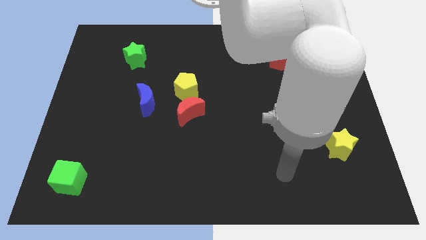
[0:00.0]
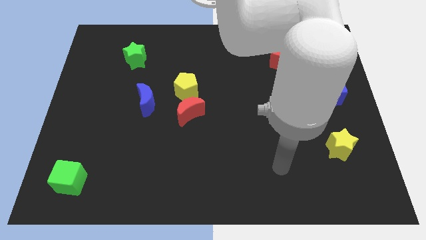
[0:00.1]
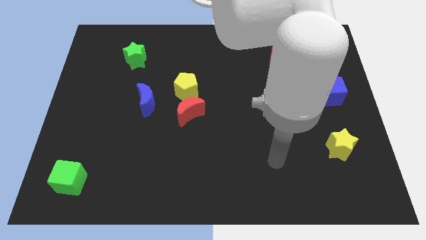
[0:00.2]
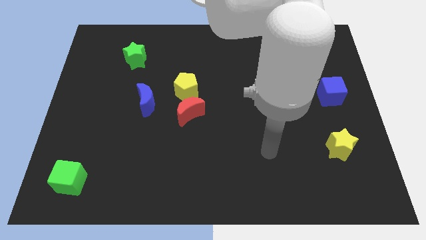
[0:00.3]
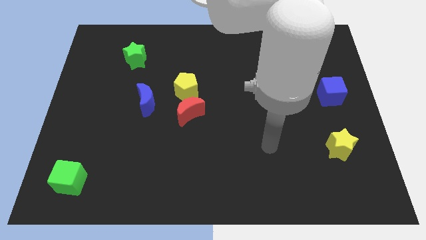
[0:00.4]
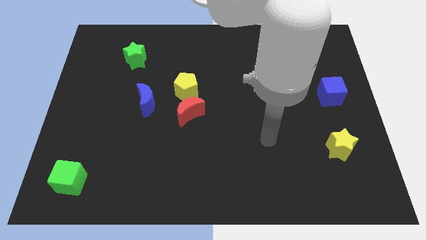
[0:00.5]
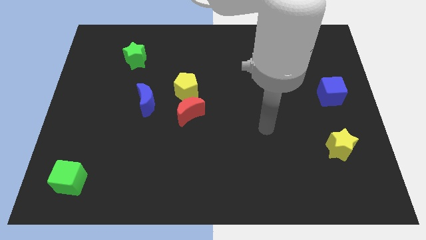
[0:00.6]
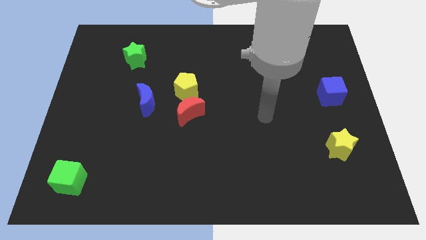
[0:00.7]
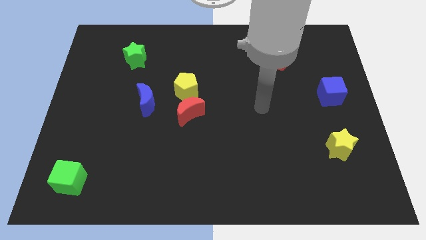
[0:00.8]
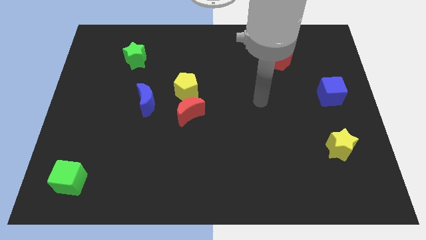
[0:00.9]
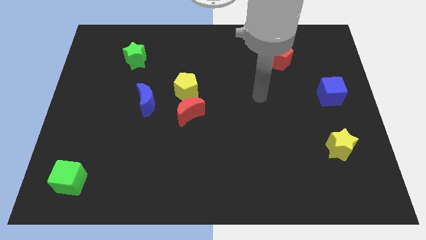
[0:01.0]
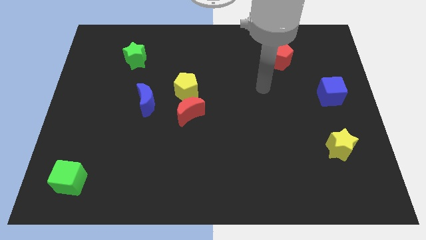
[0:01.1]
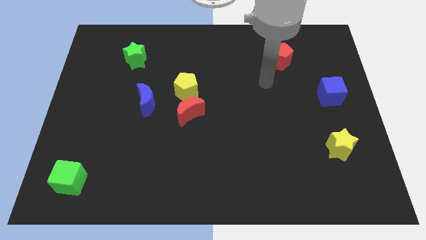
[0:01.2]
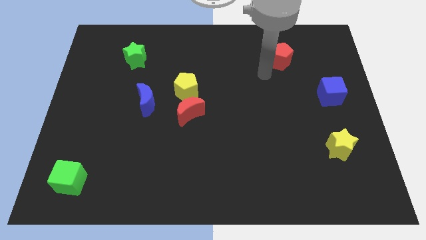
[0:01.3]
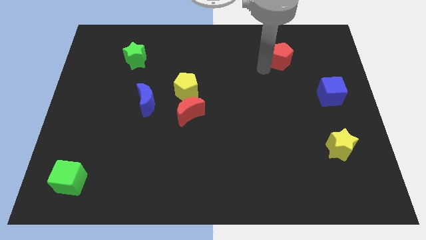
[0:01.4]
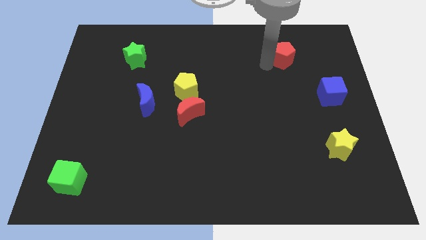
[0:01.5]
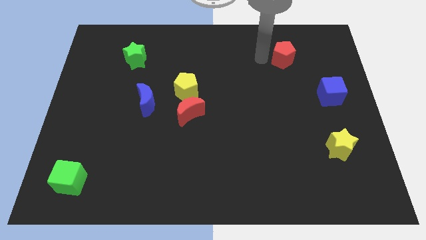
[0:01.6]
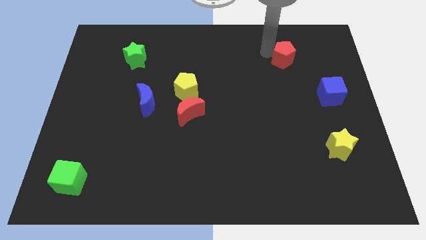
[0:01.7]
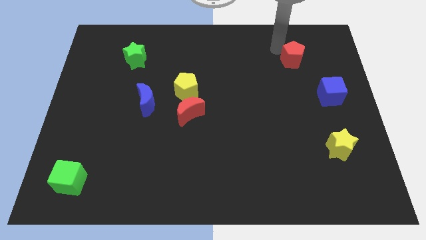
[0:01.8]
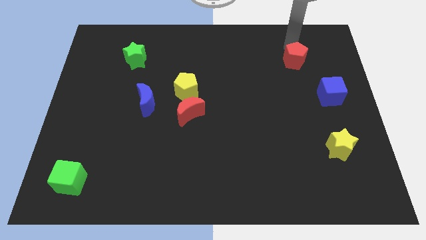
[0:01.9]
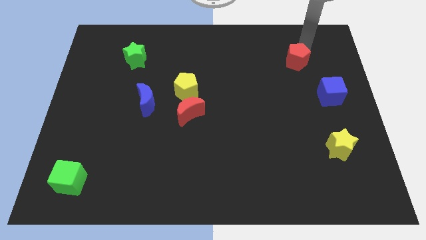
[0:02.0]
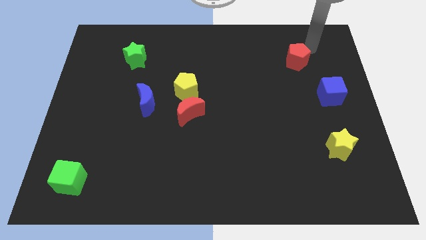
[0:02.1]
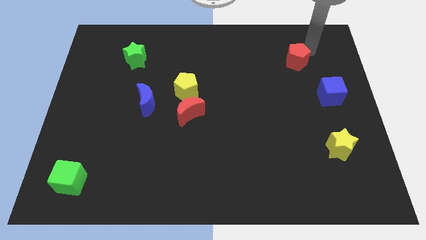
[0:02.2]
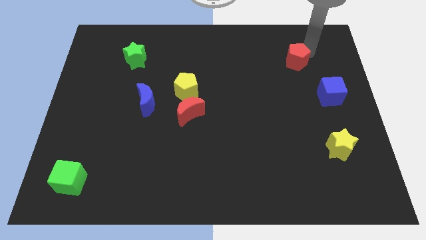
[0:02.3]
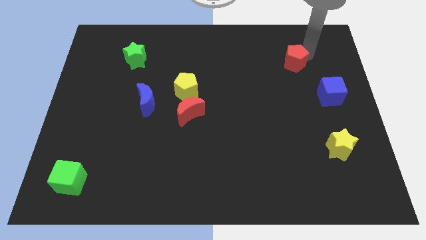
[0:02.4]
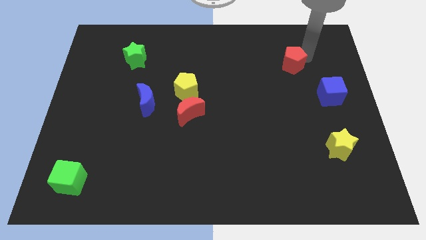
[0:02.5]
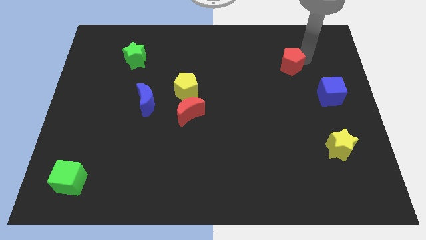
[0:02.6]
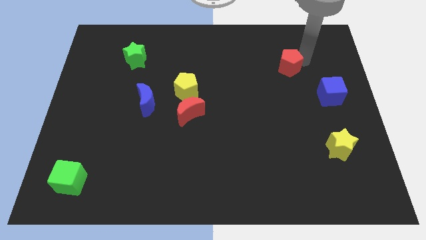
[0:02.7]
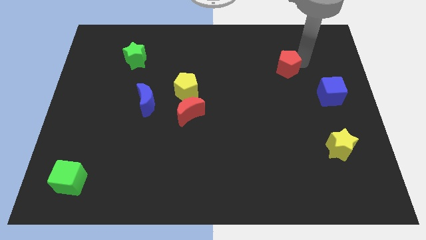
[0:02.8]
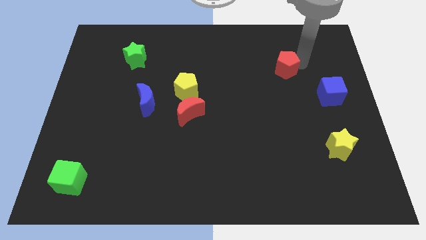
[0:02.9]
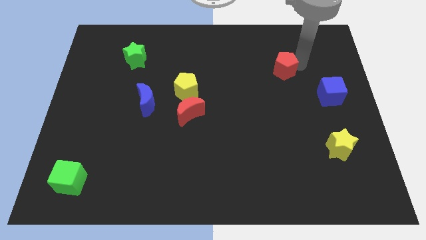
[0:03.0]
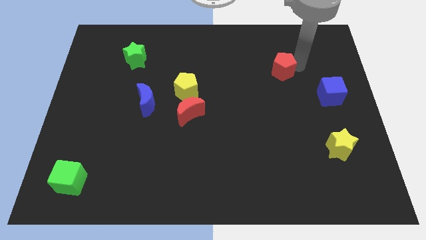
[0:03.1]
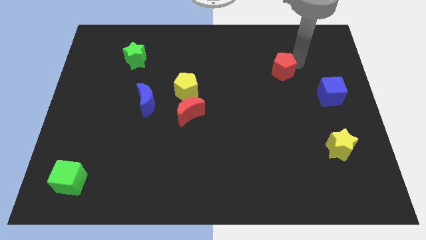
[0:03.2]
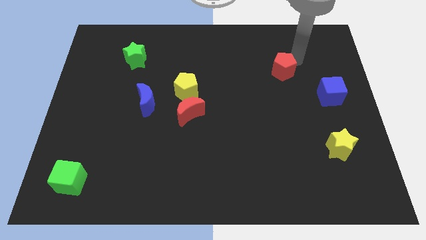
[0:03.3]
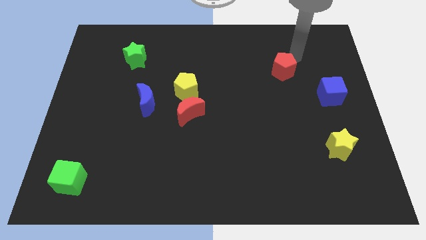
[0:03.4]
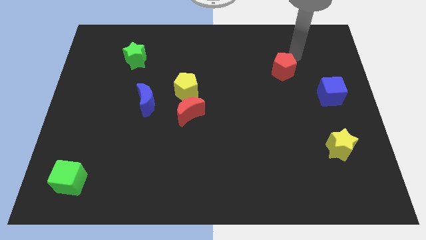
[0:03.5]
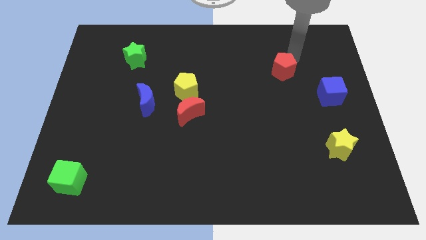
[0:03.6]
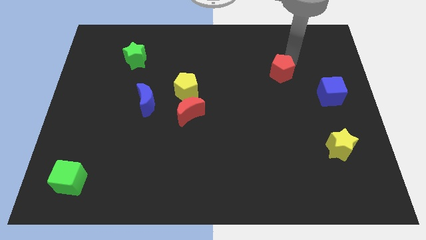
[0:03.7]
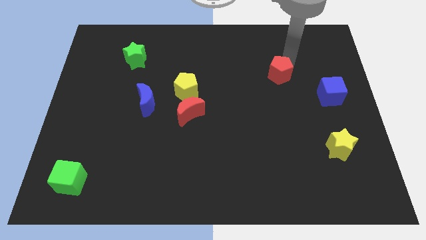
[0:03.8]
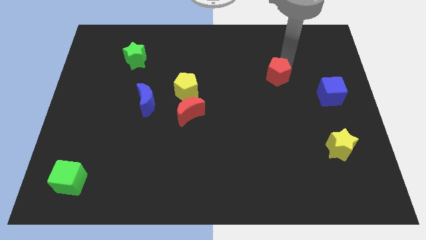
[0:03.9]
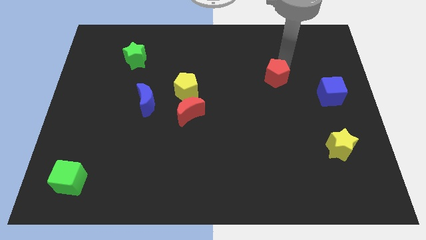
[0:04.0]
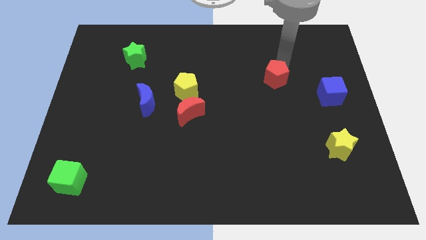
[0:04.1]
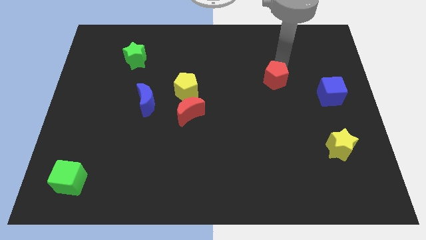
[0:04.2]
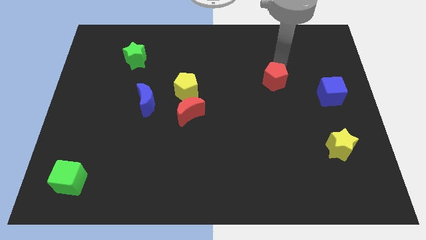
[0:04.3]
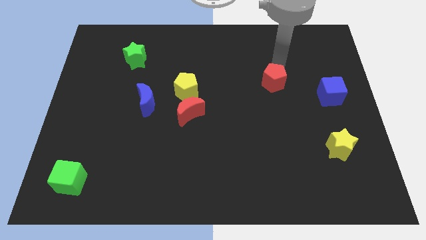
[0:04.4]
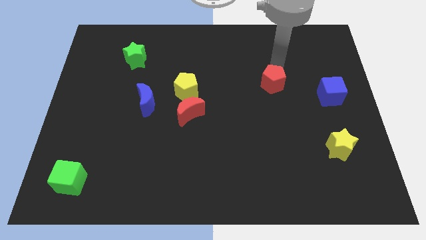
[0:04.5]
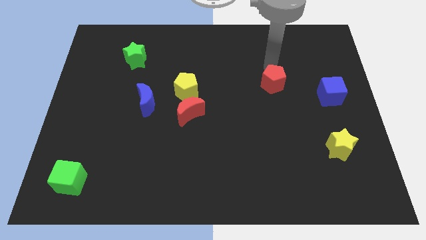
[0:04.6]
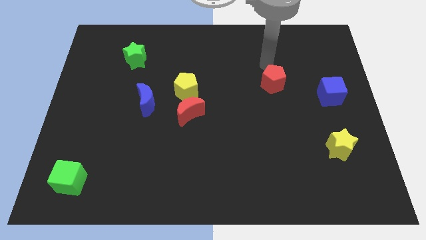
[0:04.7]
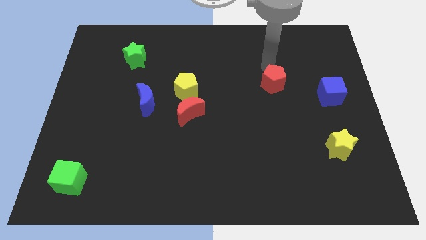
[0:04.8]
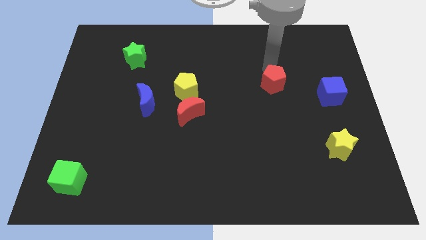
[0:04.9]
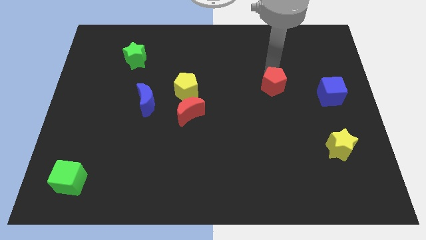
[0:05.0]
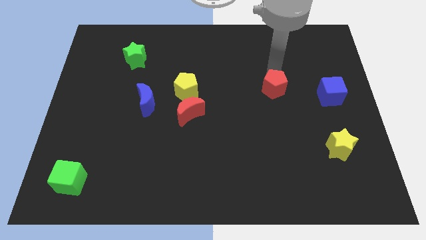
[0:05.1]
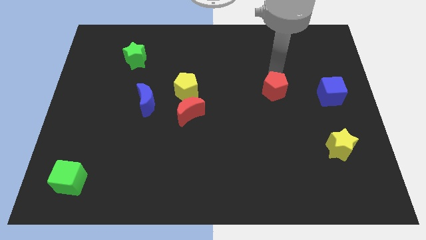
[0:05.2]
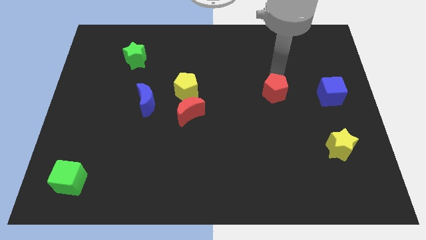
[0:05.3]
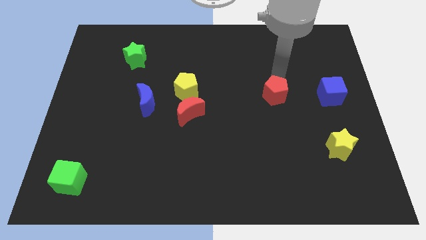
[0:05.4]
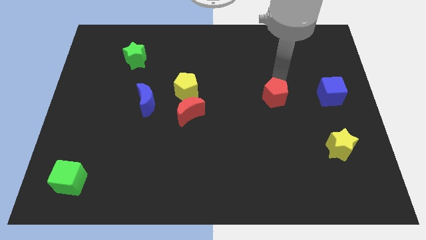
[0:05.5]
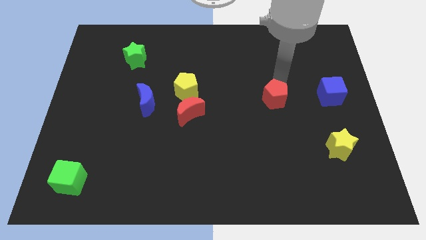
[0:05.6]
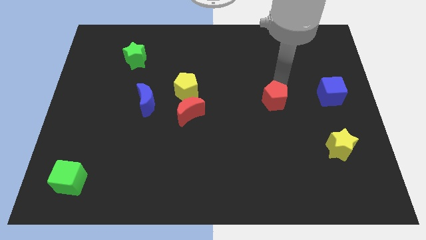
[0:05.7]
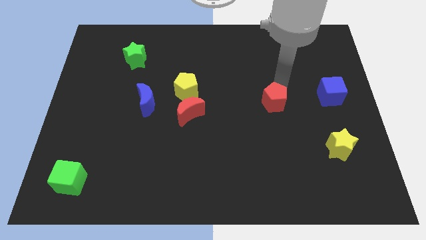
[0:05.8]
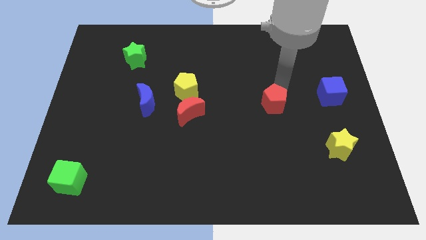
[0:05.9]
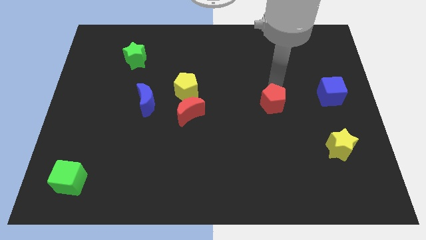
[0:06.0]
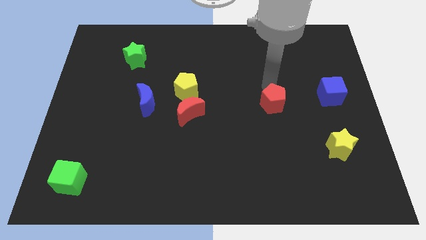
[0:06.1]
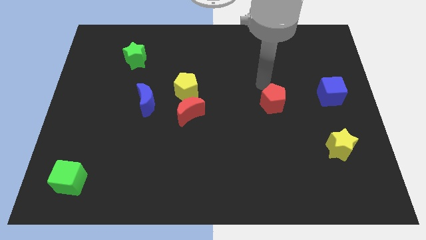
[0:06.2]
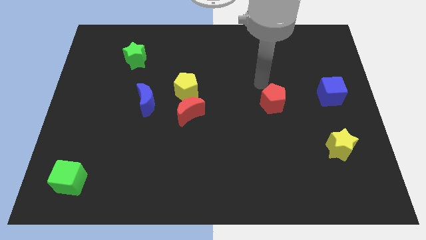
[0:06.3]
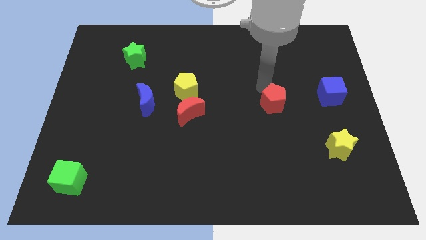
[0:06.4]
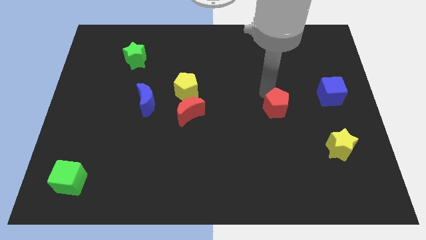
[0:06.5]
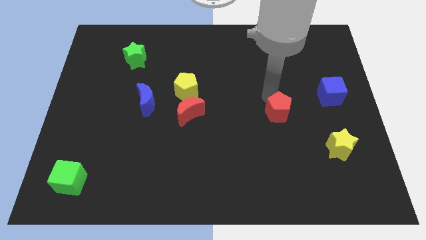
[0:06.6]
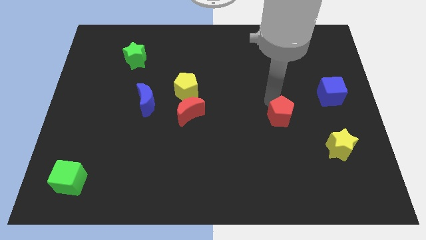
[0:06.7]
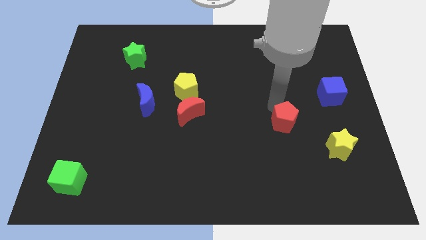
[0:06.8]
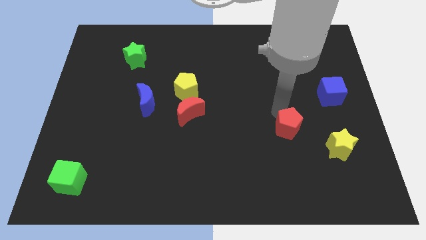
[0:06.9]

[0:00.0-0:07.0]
push the red pentagon down

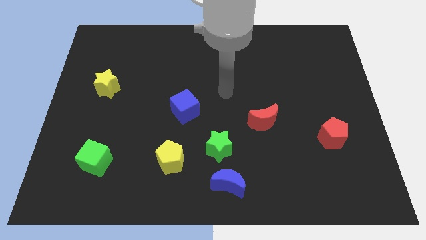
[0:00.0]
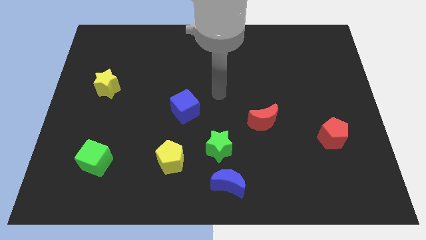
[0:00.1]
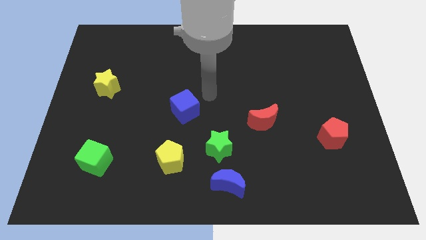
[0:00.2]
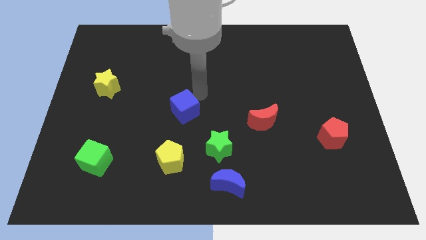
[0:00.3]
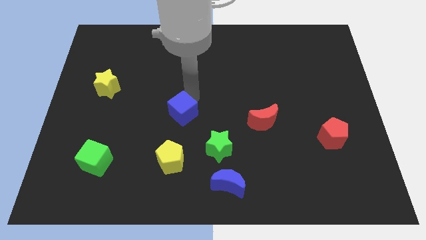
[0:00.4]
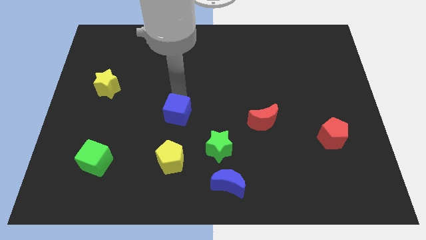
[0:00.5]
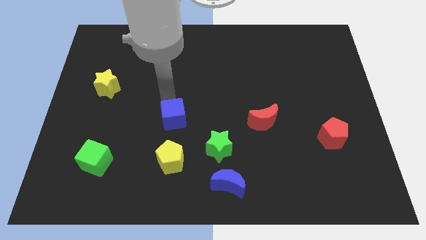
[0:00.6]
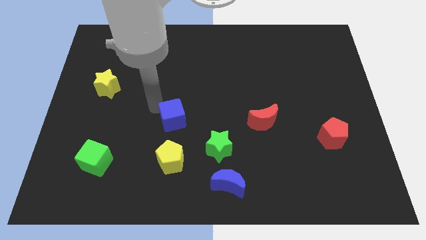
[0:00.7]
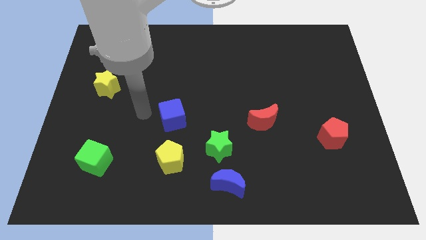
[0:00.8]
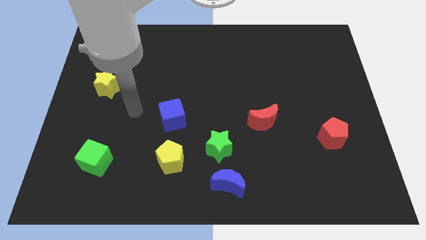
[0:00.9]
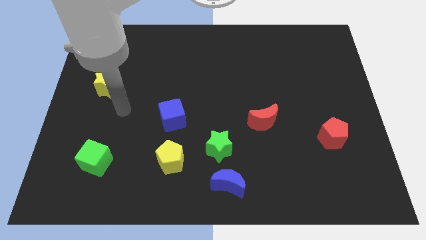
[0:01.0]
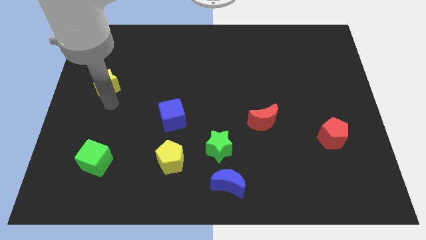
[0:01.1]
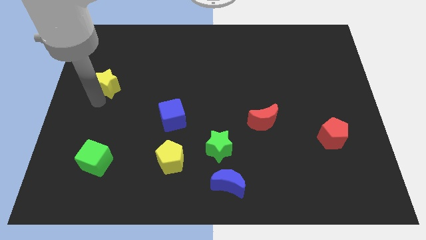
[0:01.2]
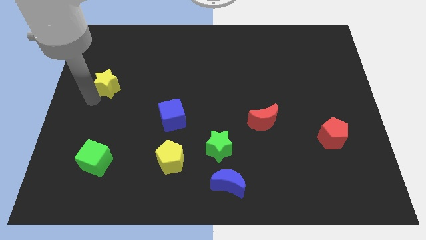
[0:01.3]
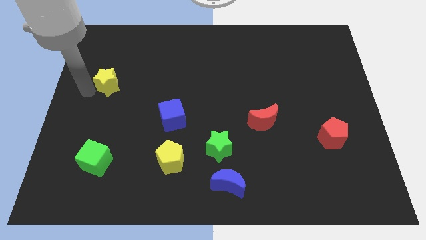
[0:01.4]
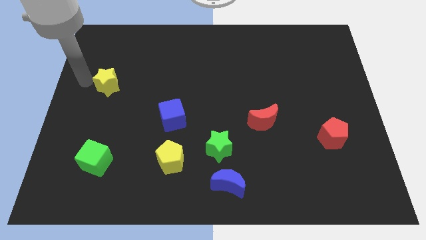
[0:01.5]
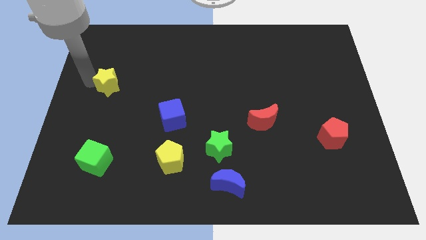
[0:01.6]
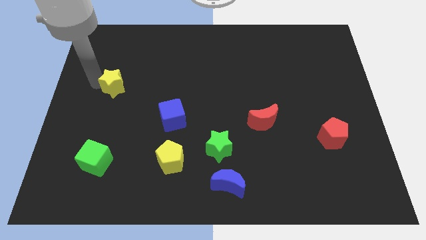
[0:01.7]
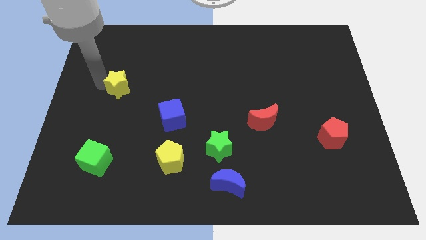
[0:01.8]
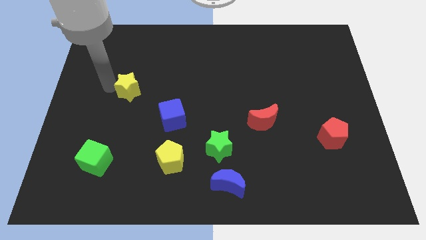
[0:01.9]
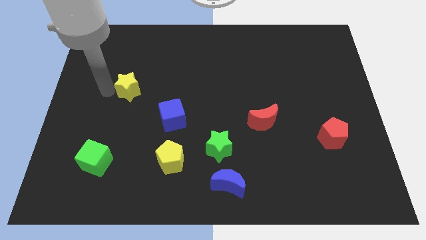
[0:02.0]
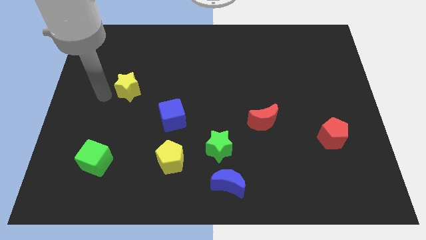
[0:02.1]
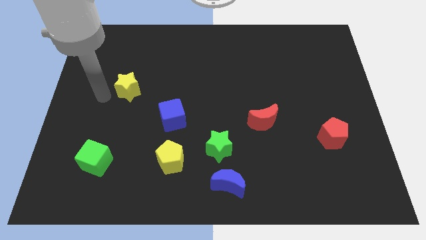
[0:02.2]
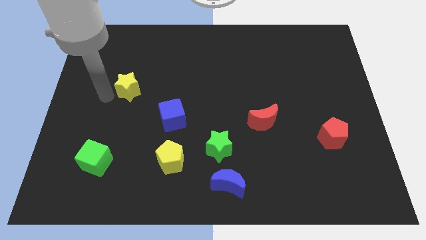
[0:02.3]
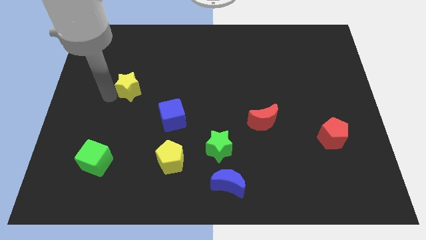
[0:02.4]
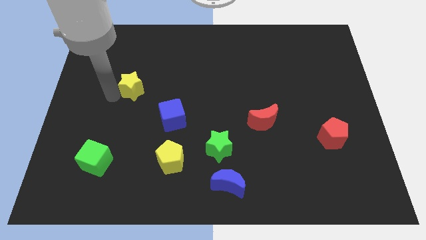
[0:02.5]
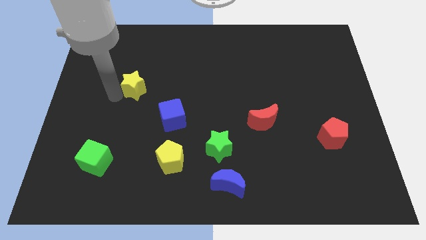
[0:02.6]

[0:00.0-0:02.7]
slide the yellow star to the right slightly
